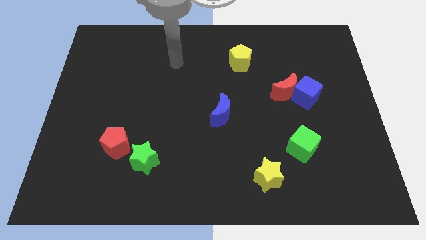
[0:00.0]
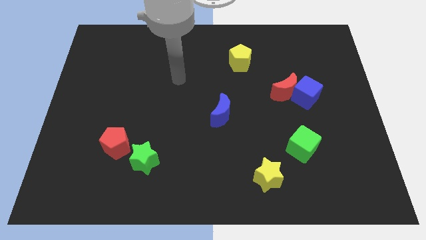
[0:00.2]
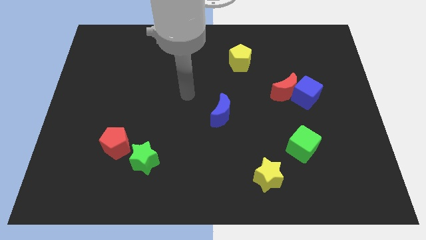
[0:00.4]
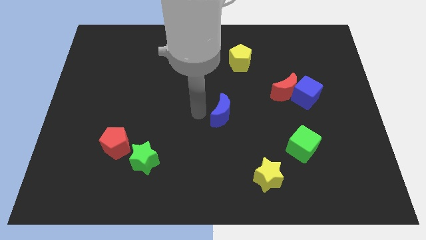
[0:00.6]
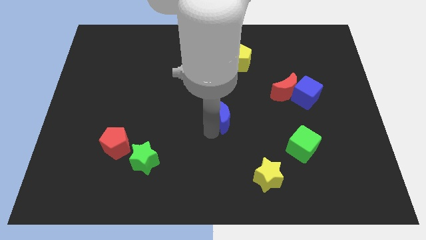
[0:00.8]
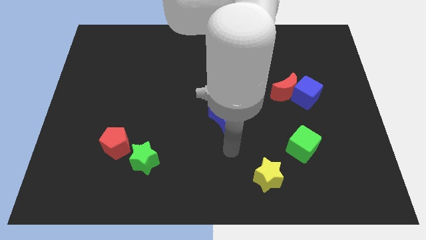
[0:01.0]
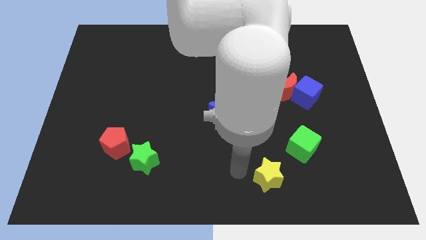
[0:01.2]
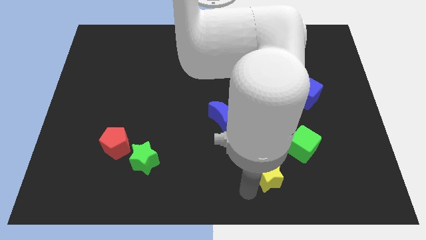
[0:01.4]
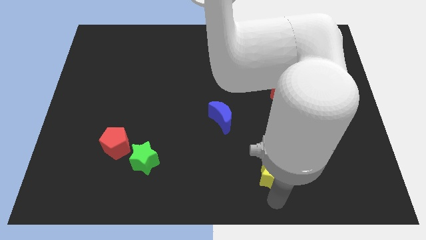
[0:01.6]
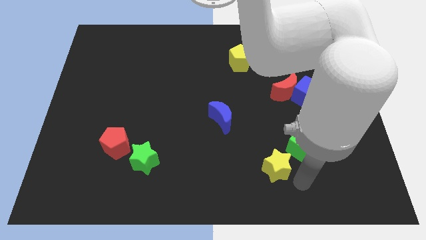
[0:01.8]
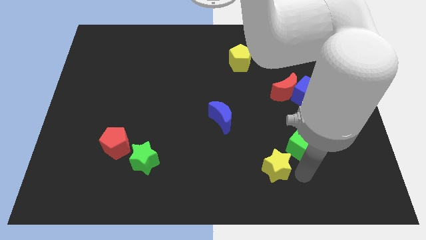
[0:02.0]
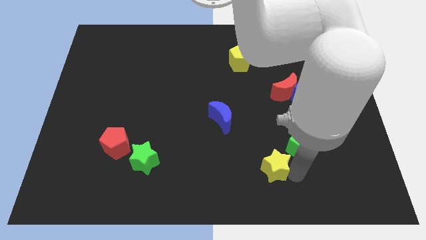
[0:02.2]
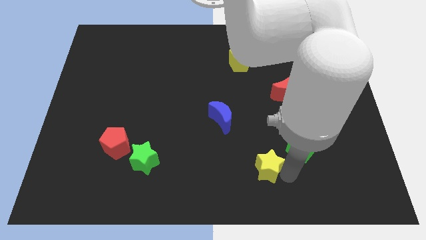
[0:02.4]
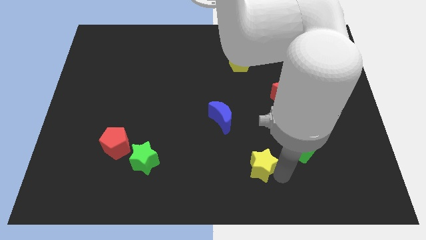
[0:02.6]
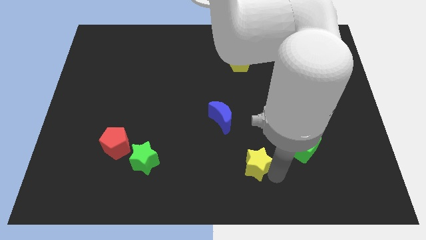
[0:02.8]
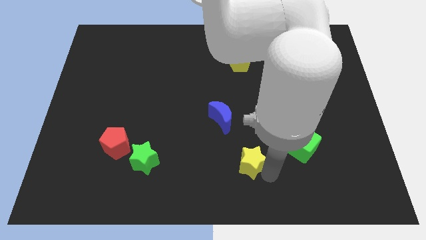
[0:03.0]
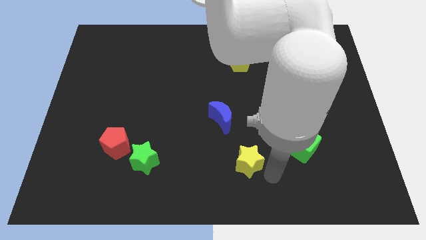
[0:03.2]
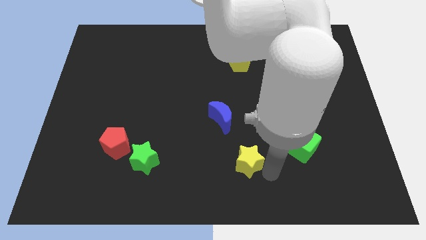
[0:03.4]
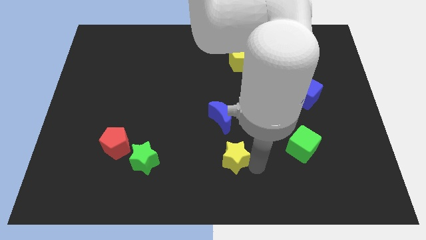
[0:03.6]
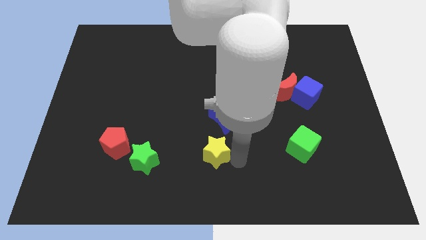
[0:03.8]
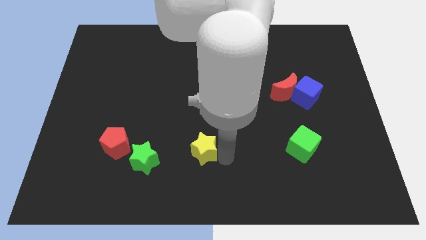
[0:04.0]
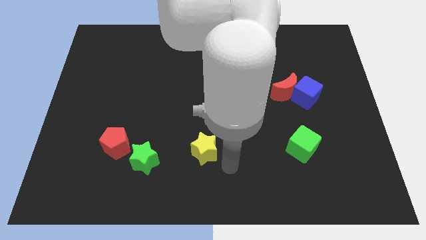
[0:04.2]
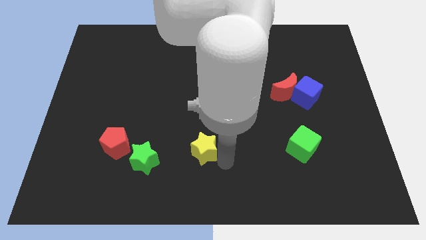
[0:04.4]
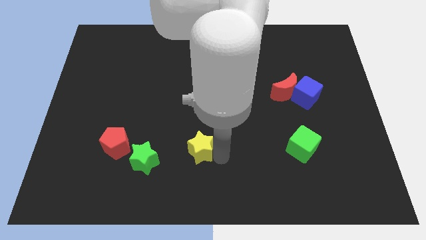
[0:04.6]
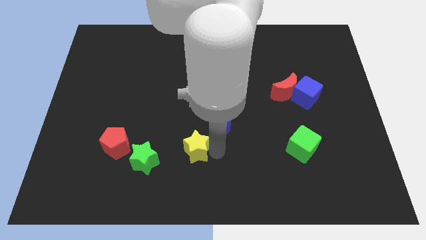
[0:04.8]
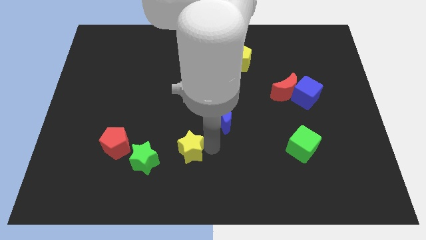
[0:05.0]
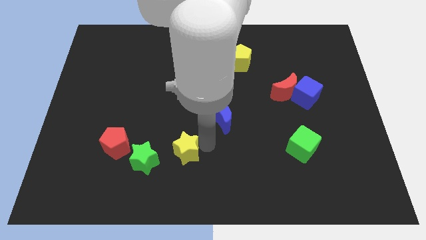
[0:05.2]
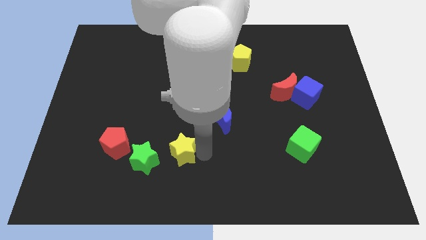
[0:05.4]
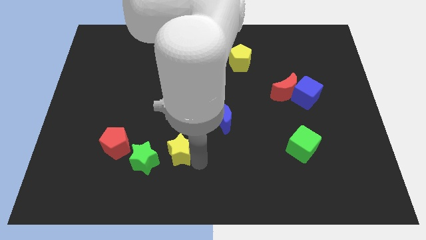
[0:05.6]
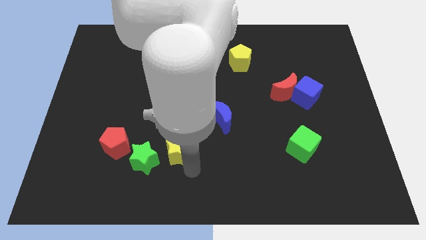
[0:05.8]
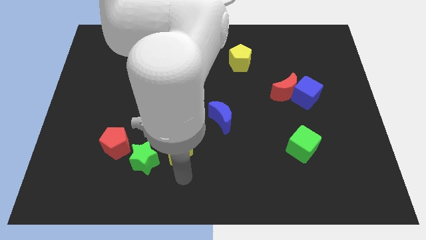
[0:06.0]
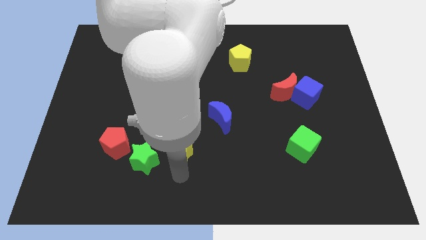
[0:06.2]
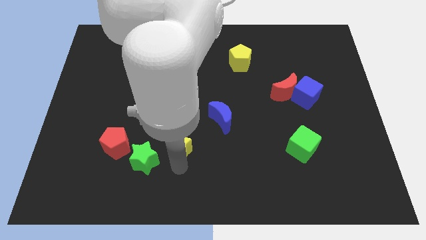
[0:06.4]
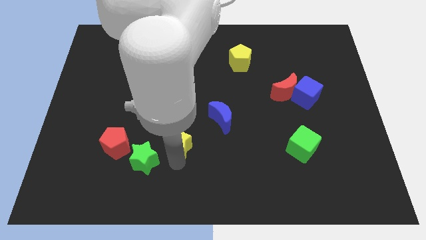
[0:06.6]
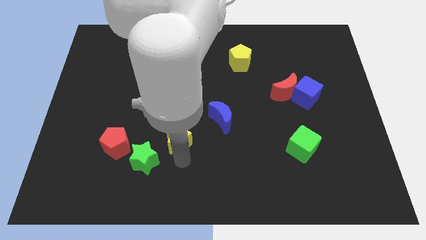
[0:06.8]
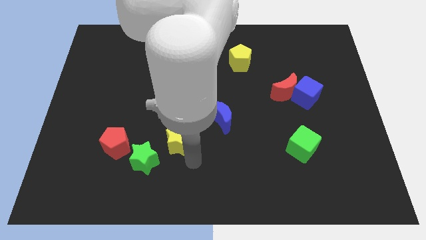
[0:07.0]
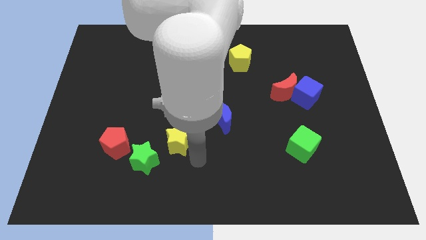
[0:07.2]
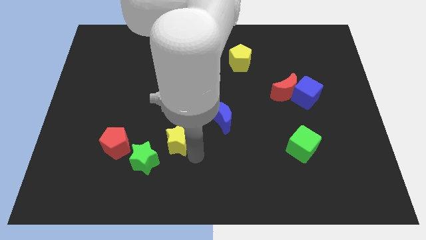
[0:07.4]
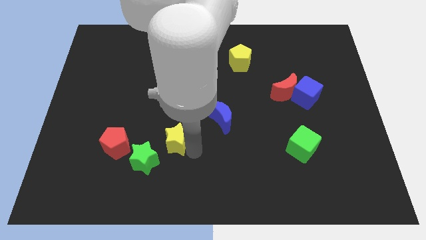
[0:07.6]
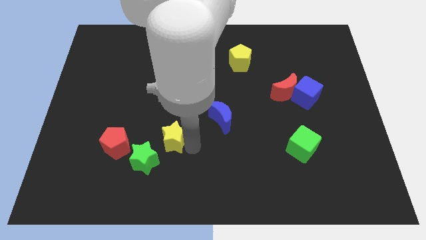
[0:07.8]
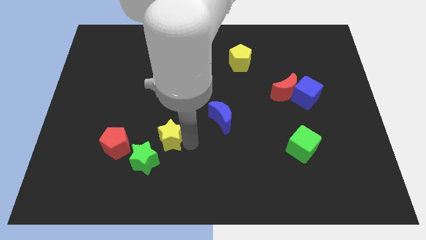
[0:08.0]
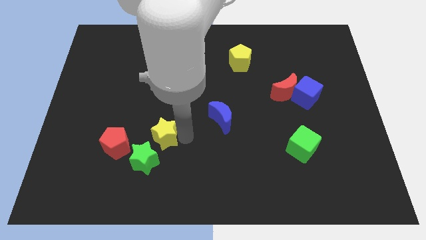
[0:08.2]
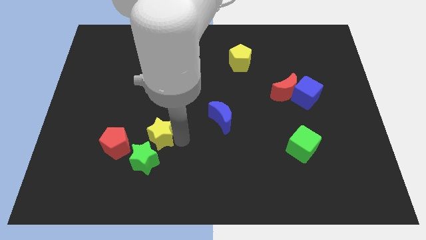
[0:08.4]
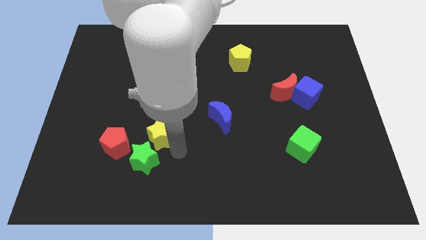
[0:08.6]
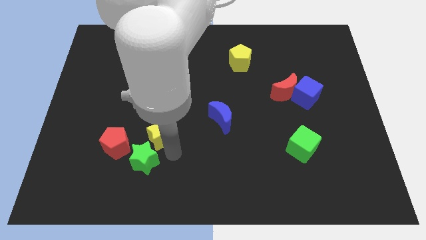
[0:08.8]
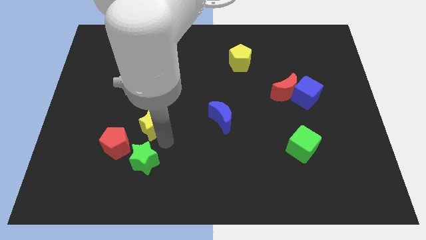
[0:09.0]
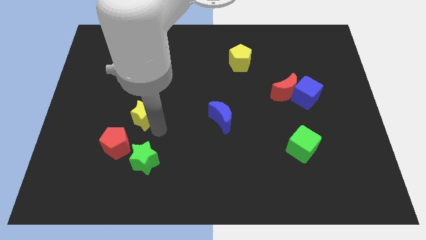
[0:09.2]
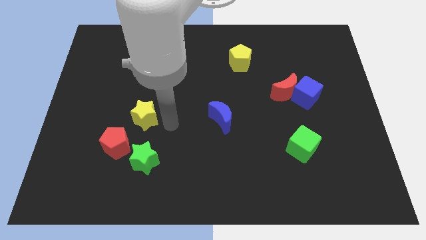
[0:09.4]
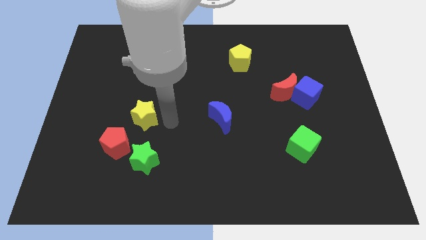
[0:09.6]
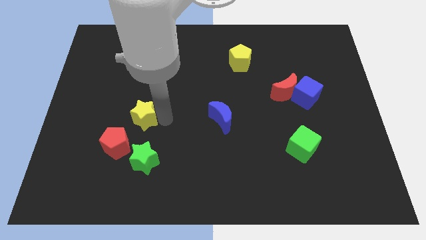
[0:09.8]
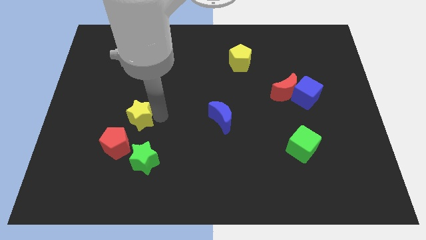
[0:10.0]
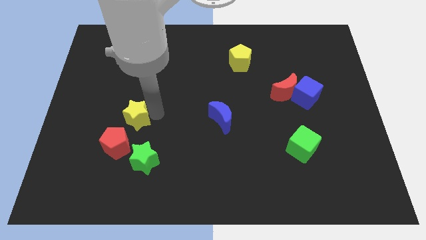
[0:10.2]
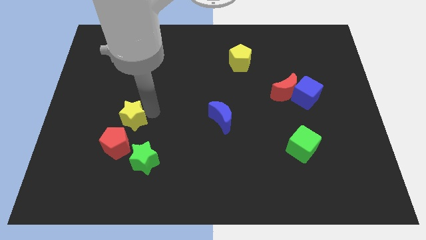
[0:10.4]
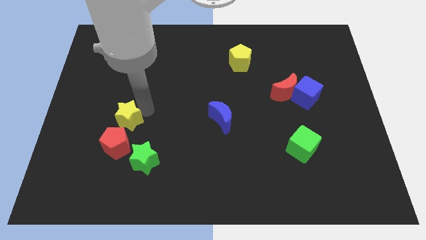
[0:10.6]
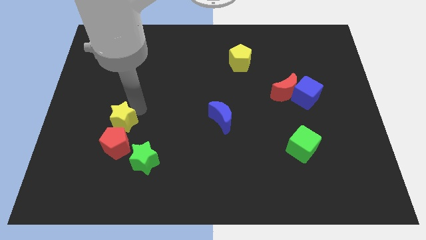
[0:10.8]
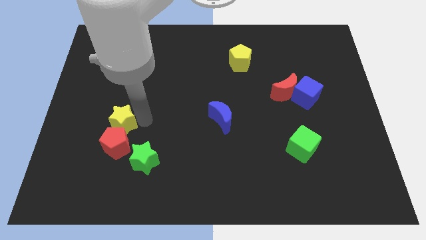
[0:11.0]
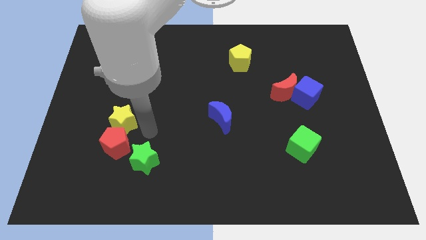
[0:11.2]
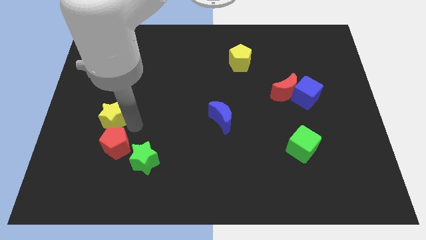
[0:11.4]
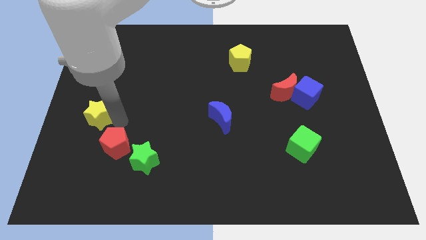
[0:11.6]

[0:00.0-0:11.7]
move the yellow star to the center left
